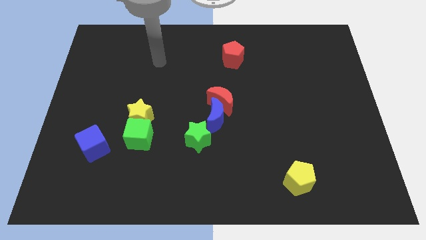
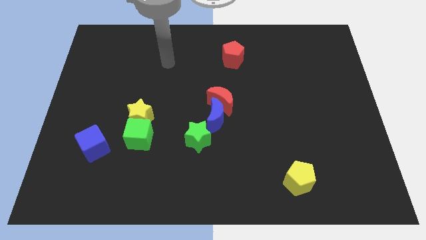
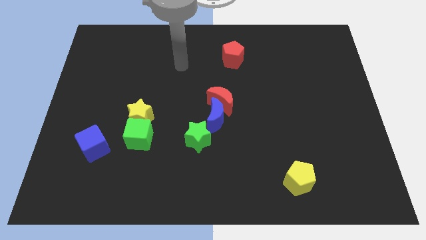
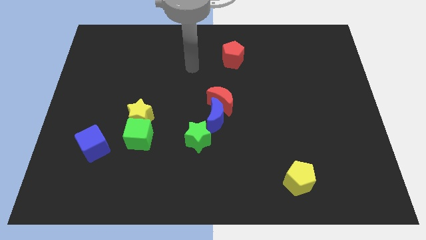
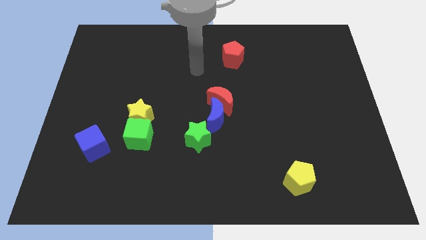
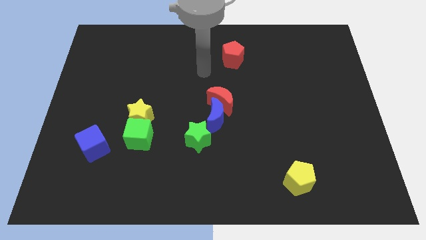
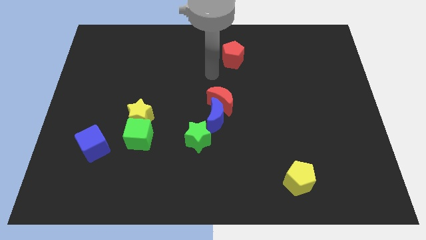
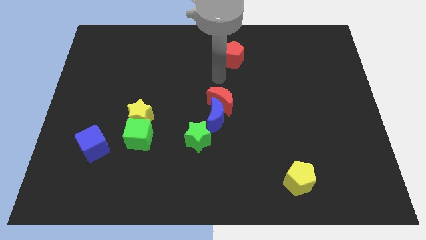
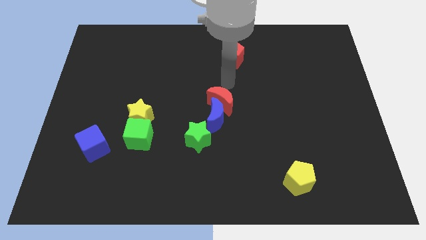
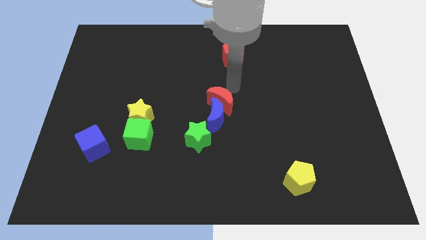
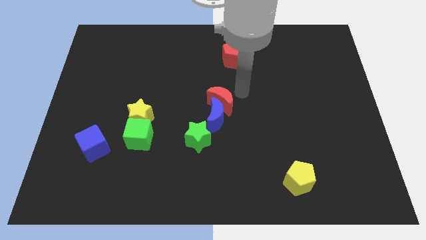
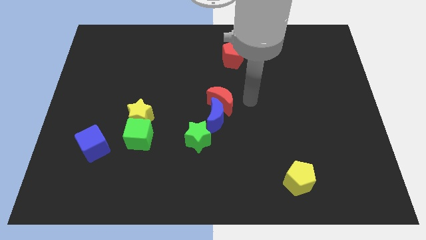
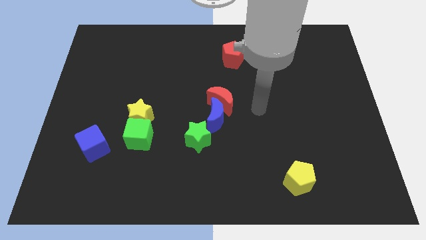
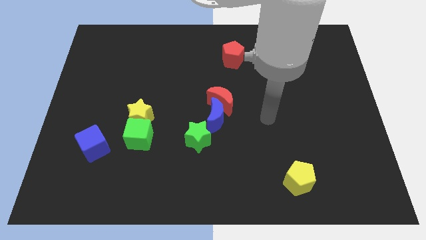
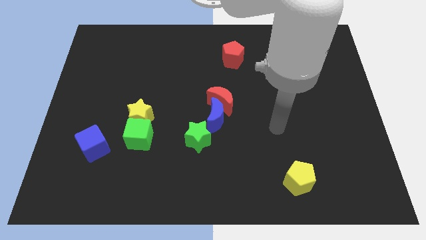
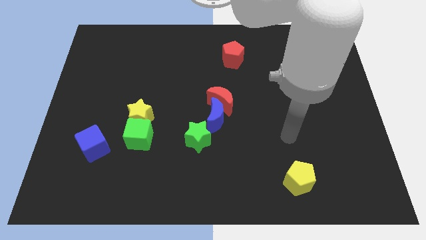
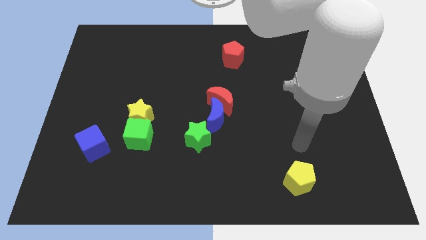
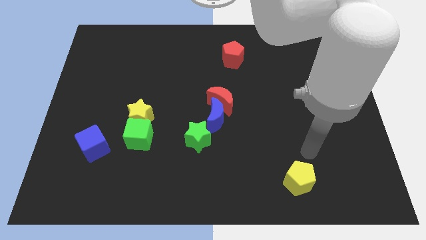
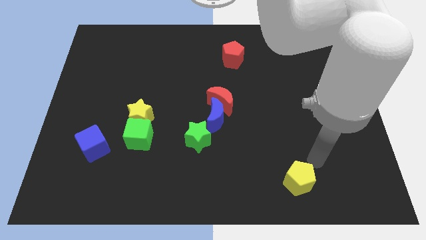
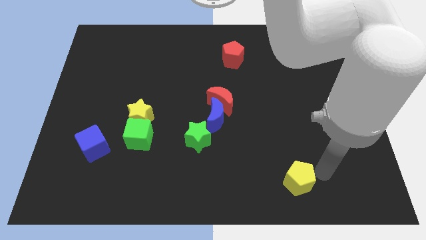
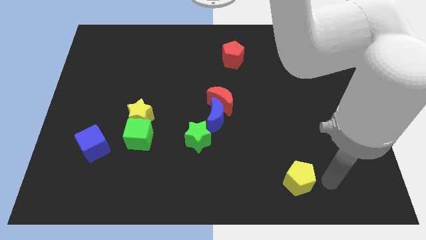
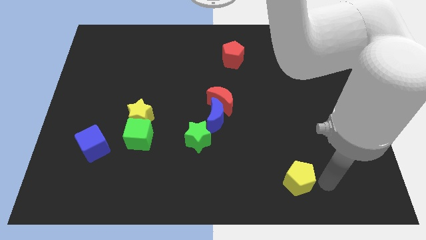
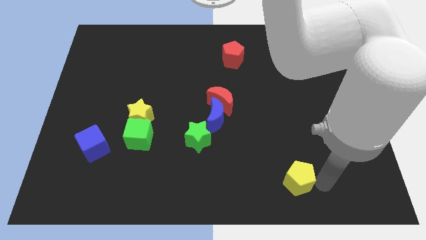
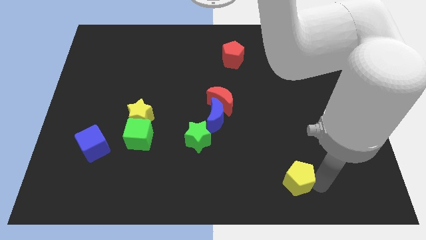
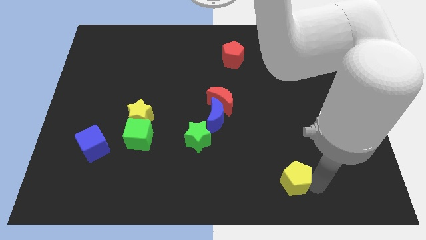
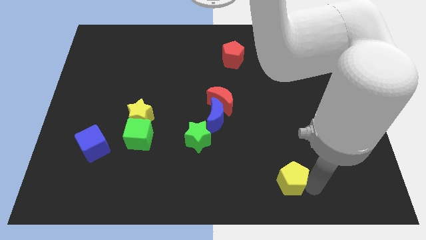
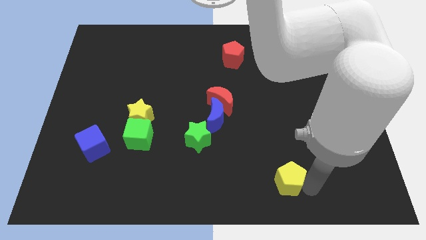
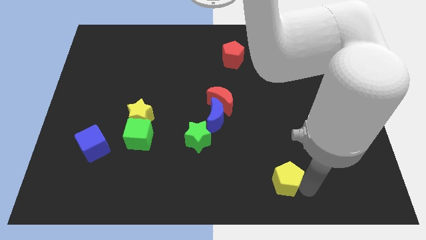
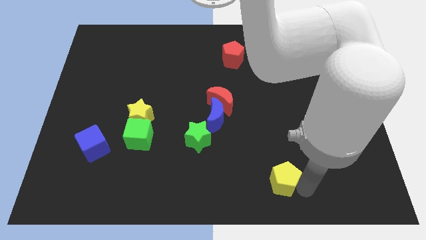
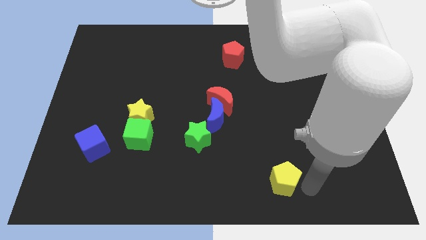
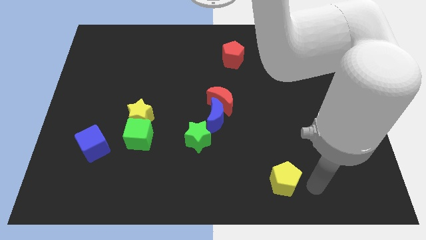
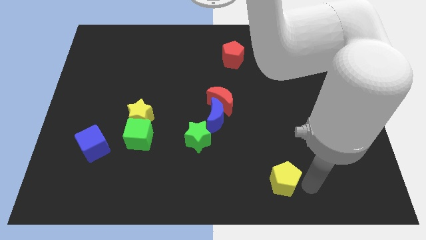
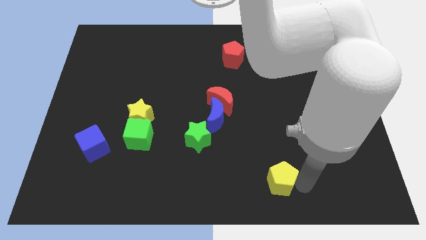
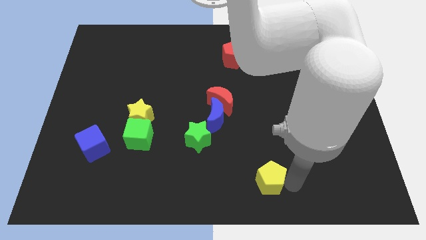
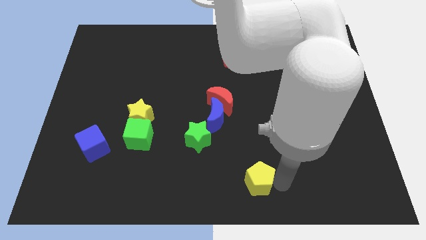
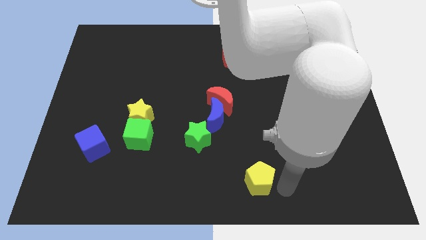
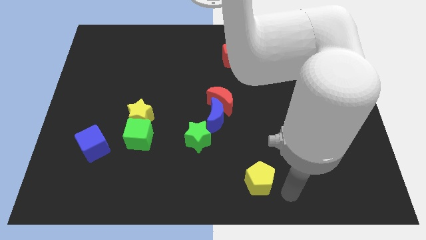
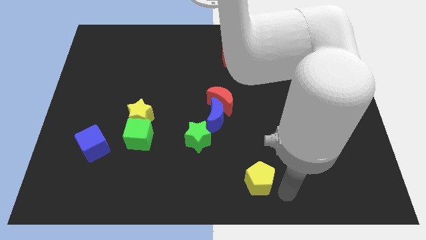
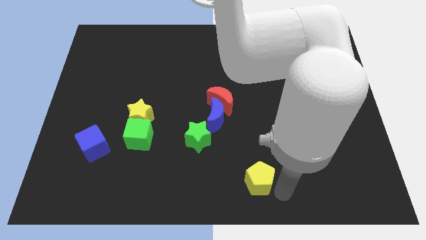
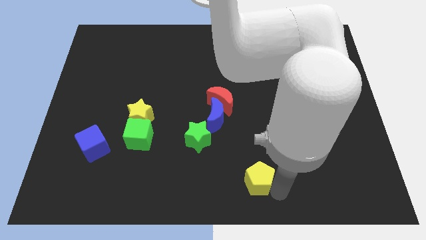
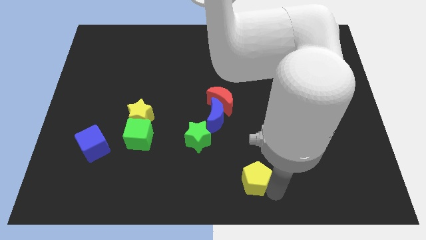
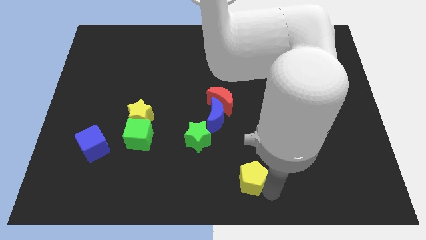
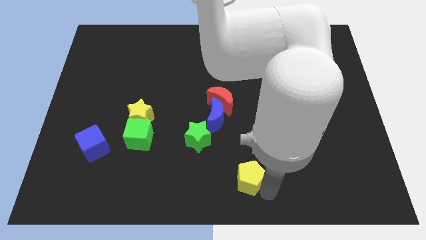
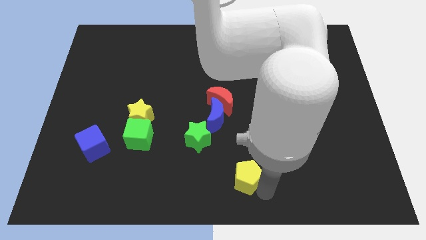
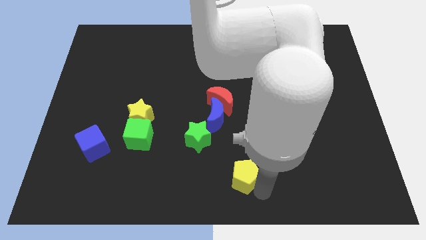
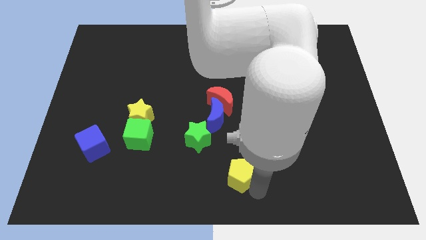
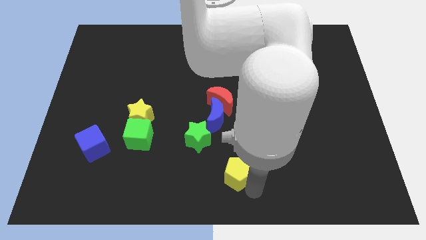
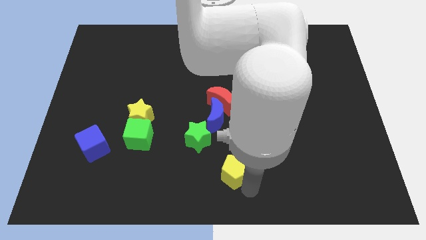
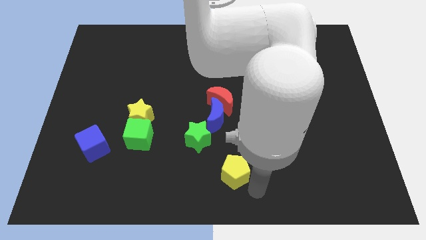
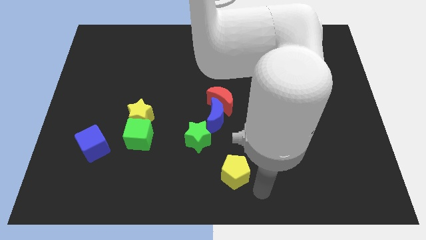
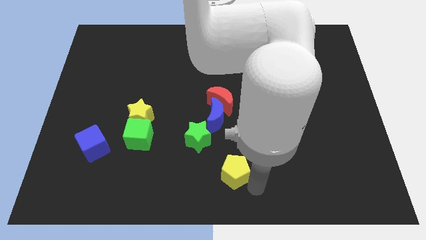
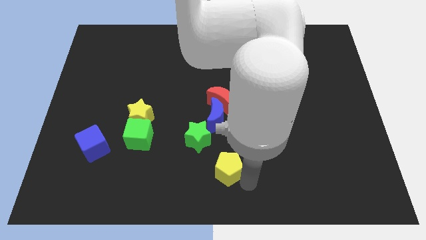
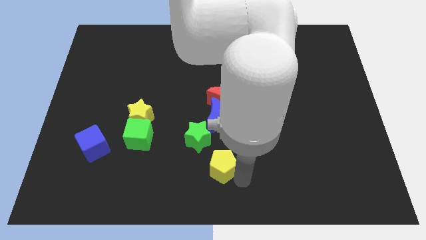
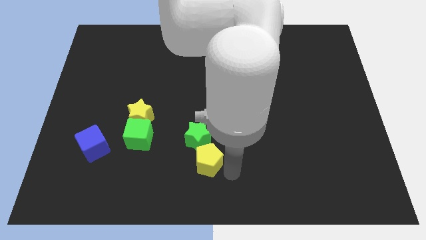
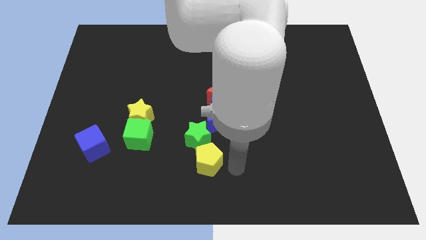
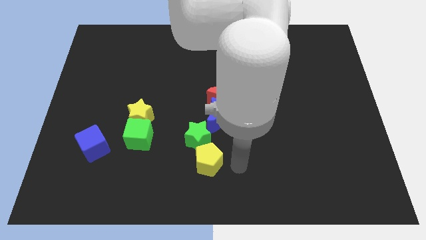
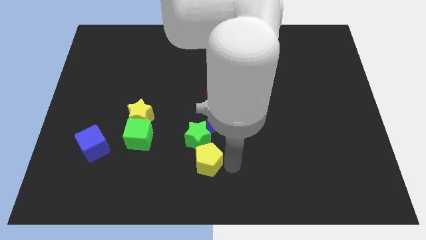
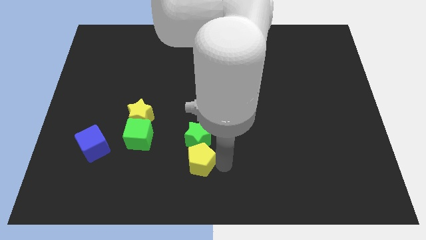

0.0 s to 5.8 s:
slide the yellow pentagon diagonally down and to the left of the green star

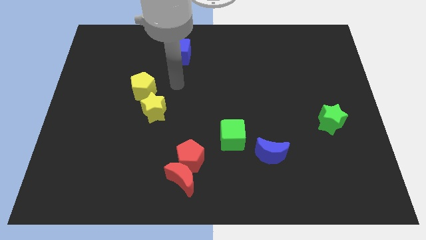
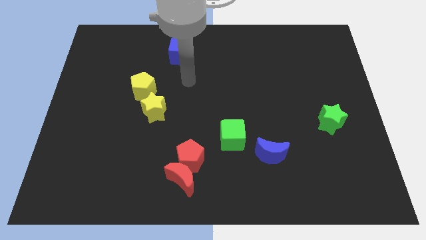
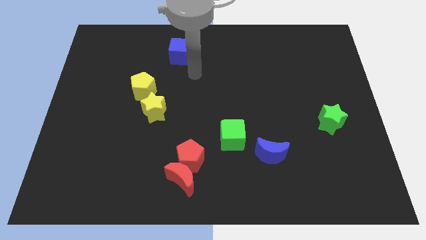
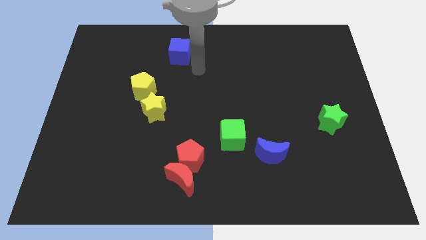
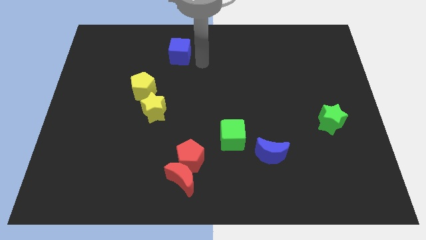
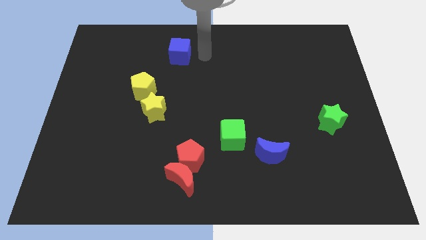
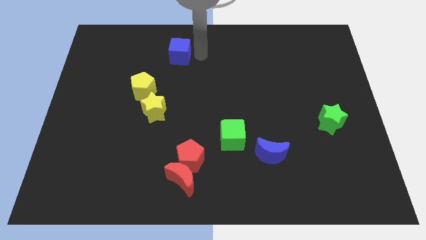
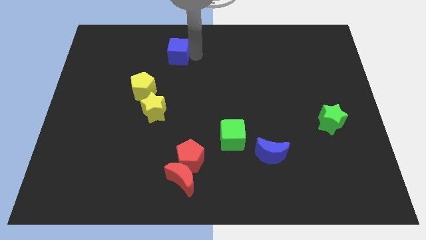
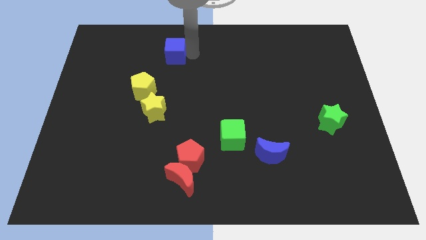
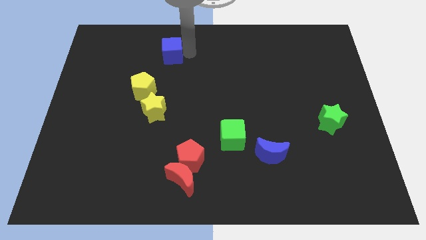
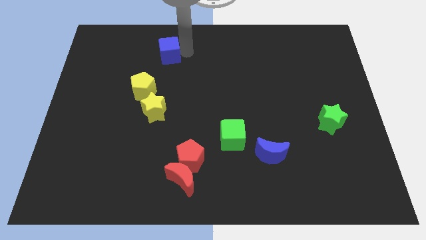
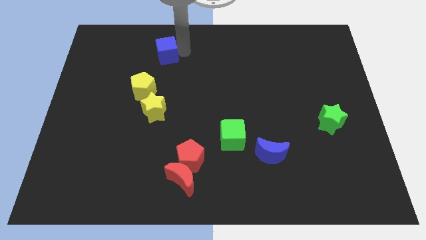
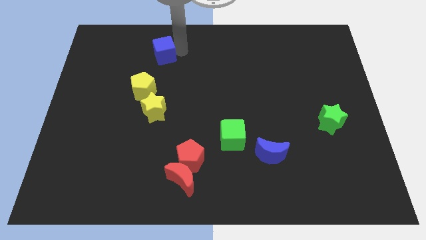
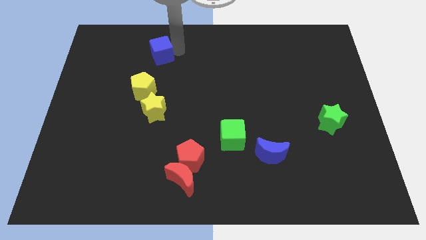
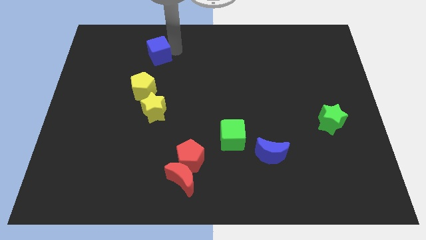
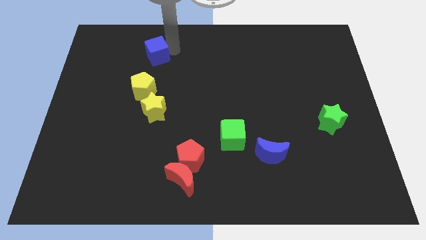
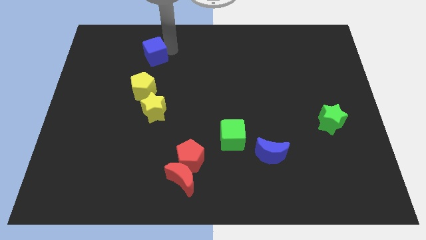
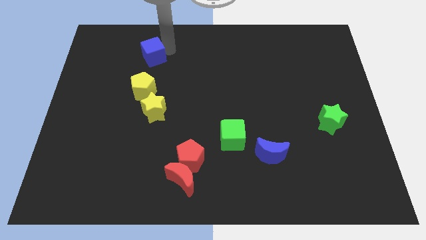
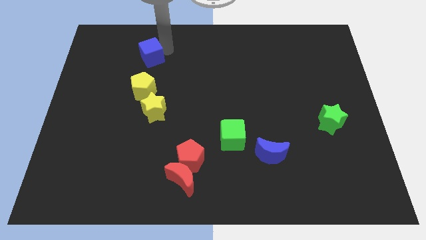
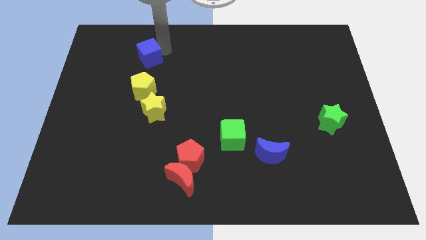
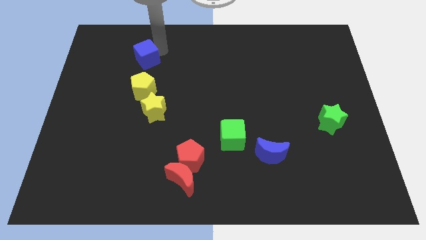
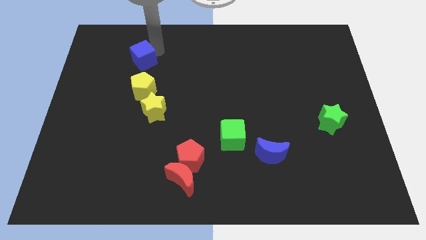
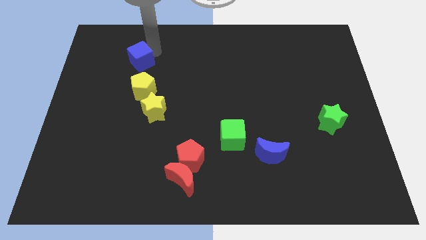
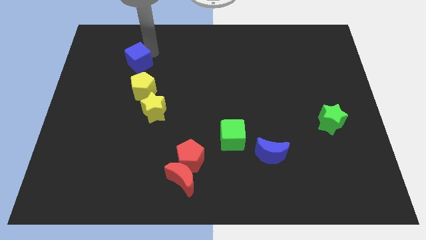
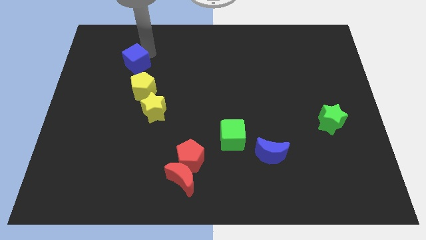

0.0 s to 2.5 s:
slide the blue cube diagonally up and to the left of the yellow pentagon

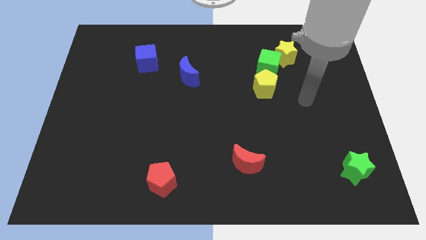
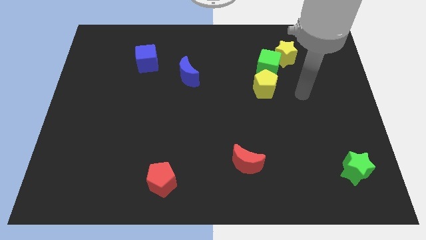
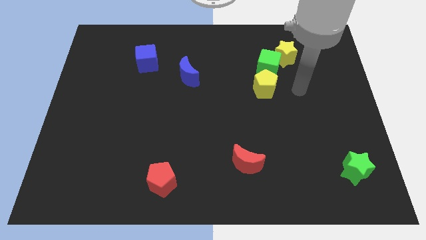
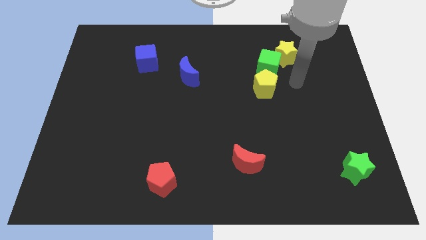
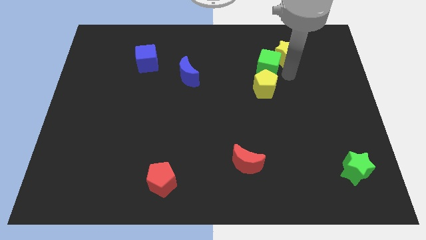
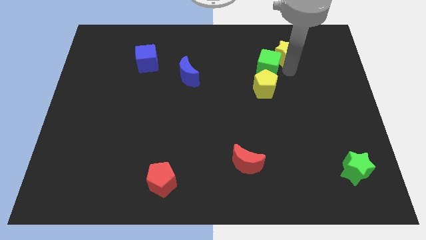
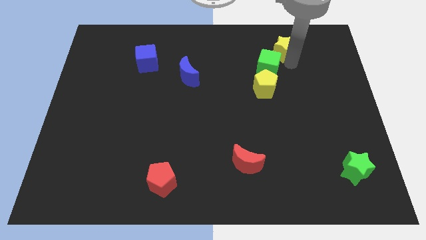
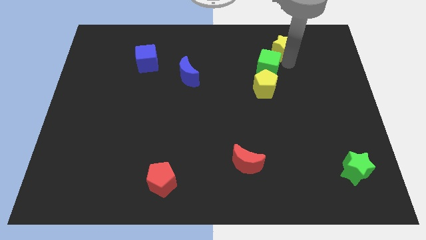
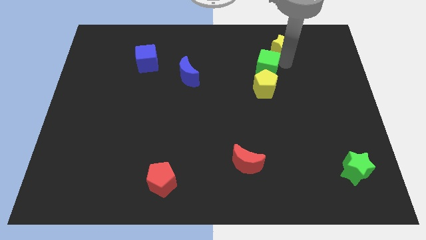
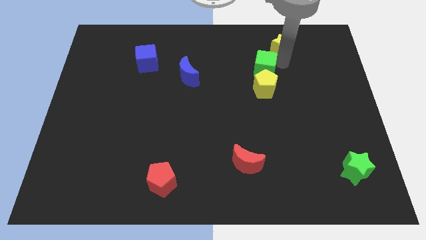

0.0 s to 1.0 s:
put the green cube diagonally up and to the left of the yellow pentagon
